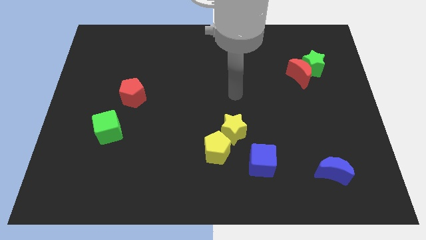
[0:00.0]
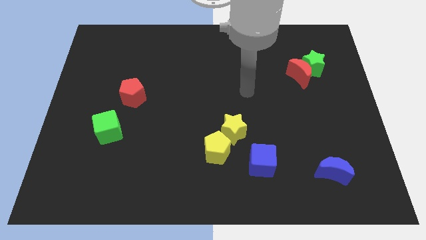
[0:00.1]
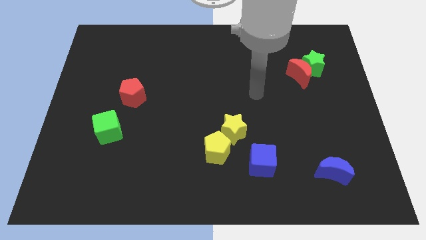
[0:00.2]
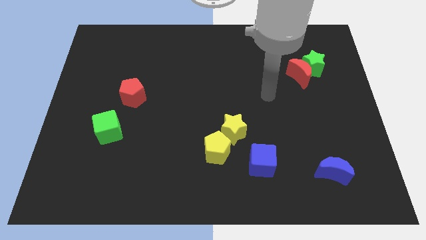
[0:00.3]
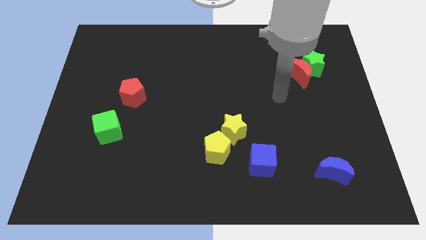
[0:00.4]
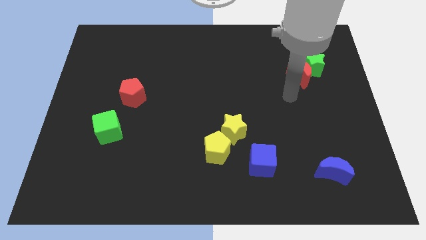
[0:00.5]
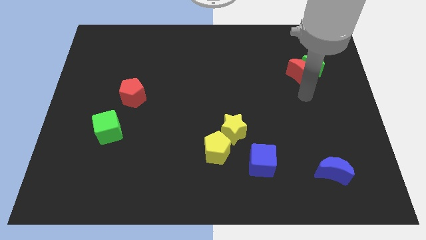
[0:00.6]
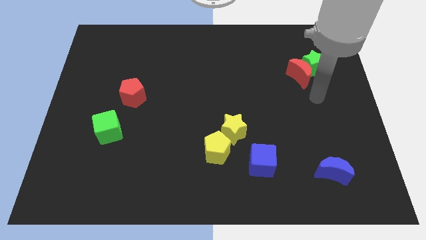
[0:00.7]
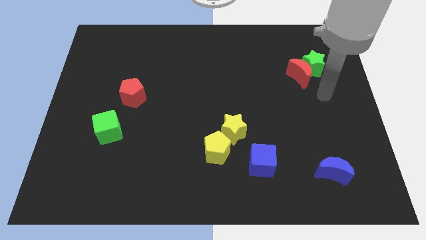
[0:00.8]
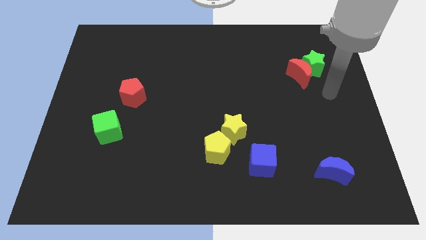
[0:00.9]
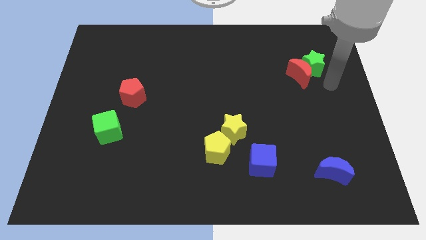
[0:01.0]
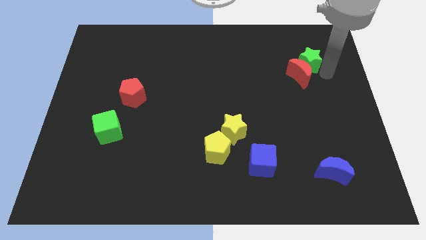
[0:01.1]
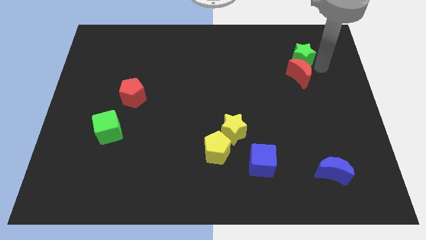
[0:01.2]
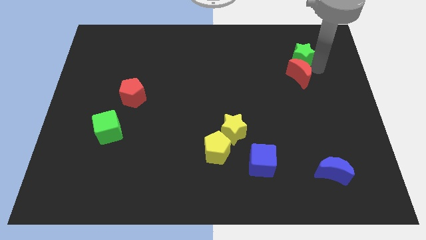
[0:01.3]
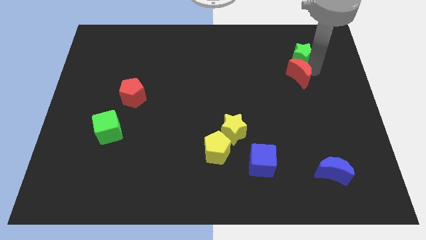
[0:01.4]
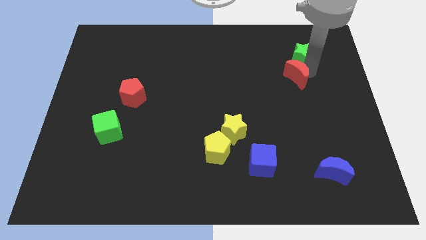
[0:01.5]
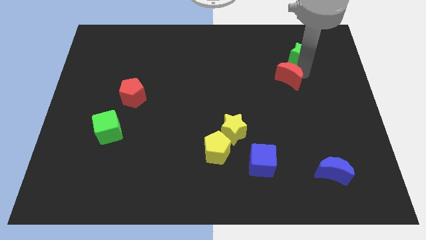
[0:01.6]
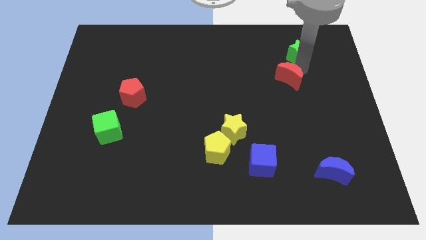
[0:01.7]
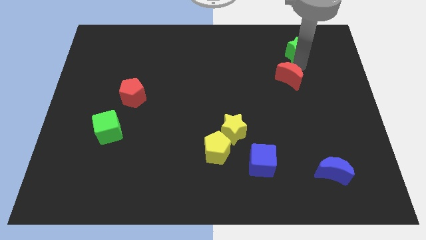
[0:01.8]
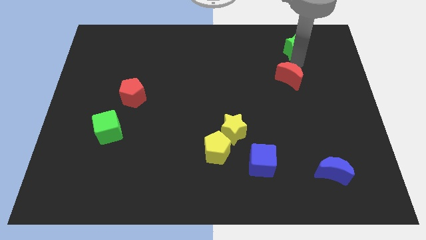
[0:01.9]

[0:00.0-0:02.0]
separate the red moon from the green star

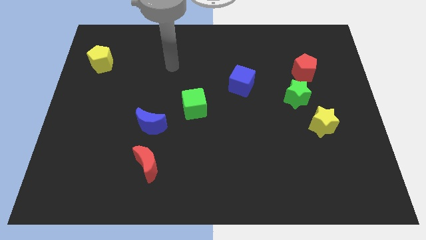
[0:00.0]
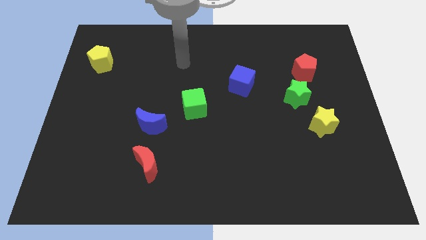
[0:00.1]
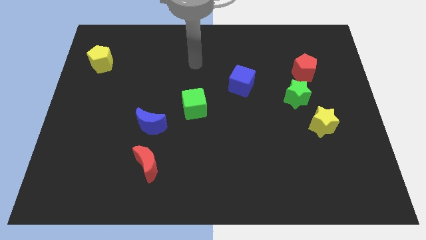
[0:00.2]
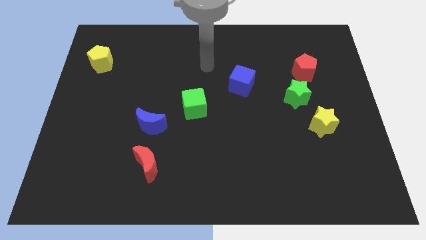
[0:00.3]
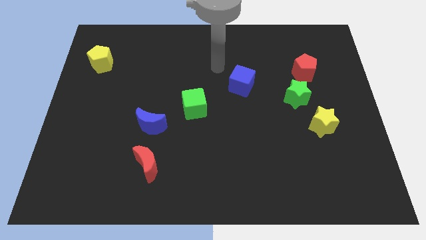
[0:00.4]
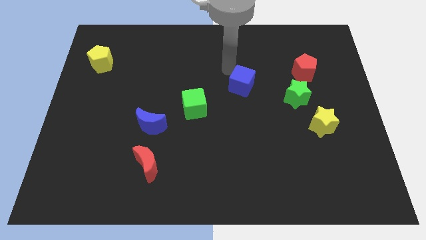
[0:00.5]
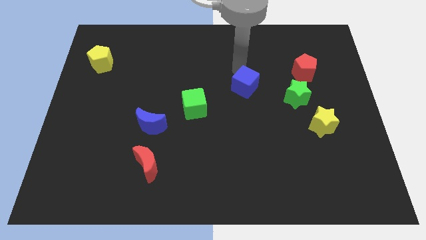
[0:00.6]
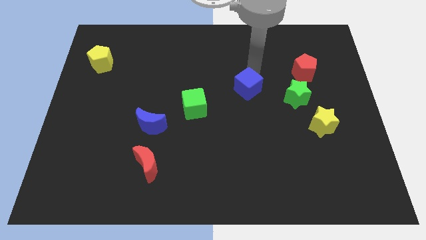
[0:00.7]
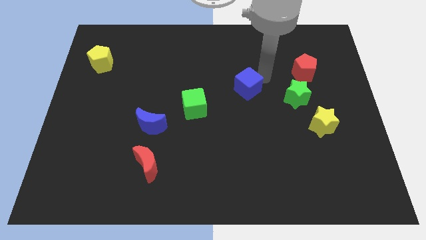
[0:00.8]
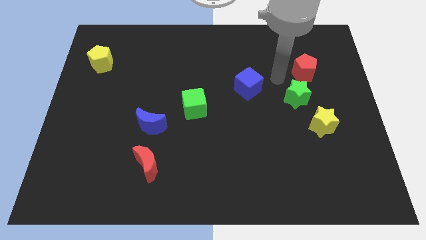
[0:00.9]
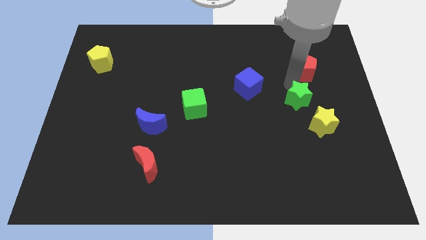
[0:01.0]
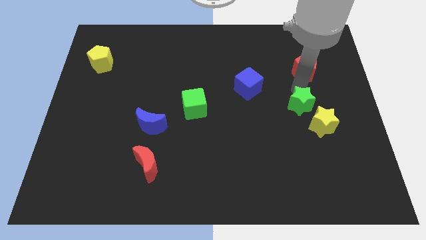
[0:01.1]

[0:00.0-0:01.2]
pull the red pentagon apart from the green star

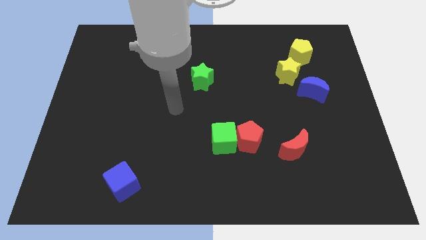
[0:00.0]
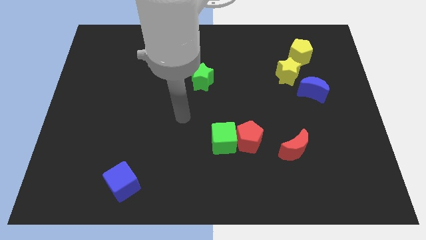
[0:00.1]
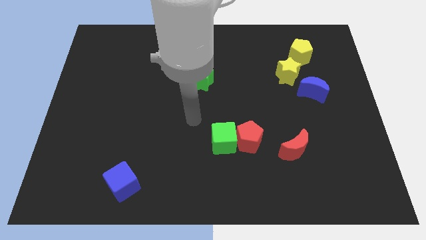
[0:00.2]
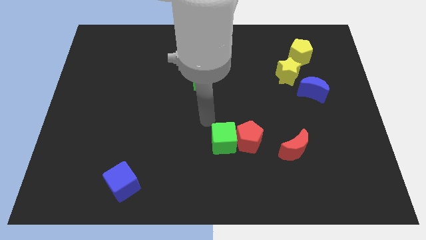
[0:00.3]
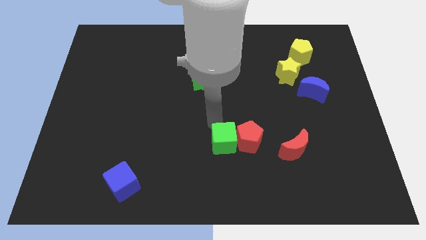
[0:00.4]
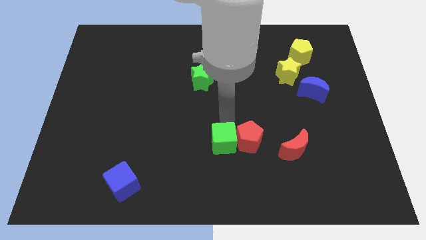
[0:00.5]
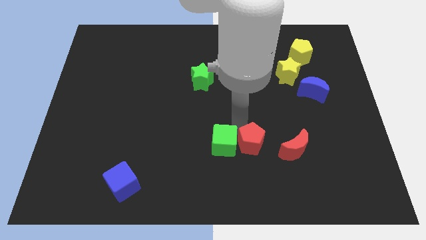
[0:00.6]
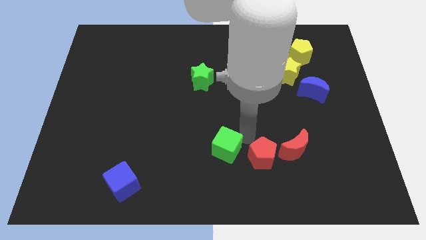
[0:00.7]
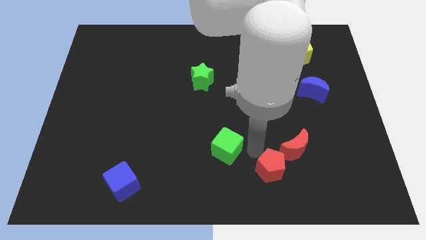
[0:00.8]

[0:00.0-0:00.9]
separate the green cube from the red pentagon

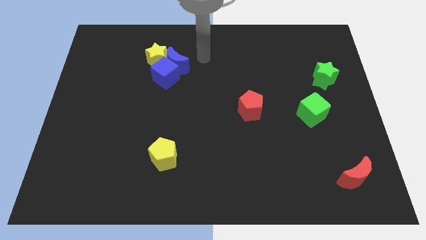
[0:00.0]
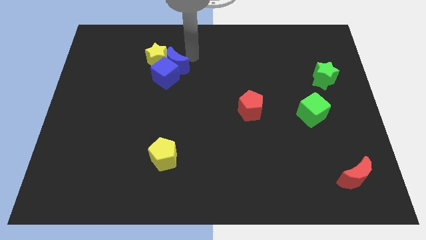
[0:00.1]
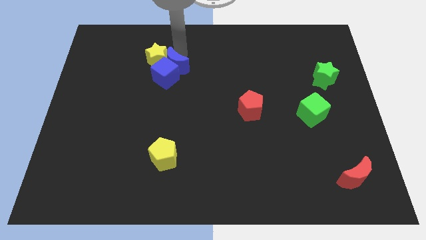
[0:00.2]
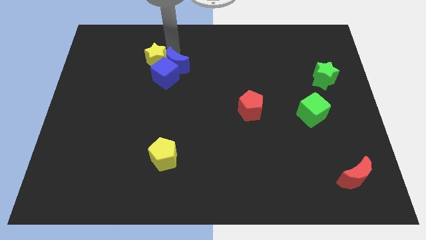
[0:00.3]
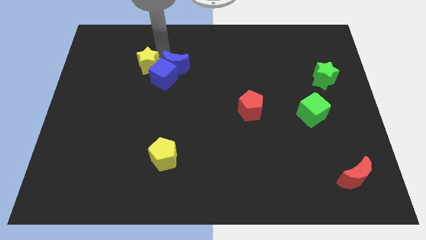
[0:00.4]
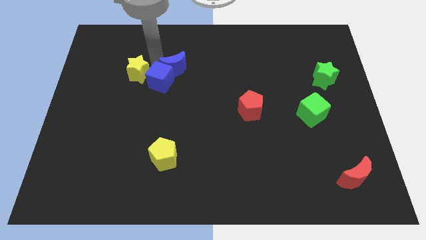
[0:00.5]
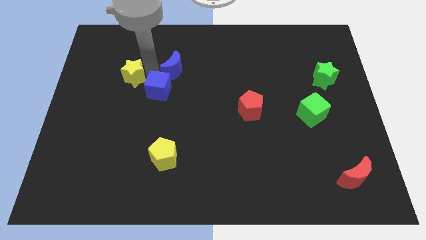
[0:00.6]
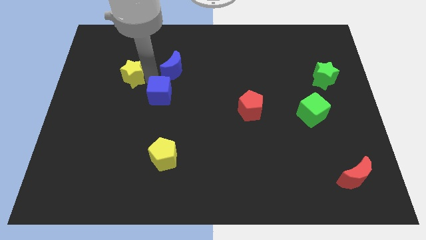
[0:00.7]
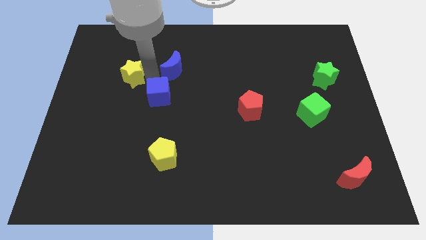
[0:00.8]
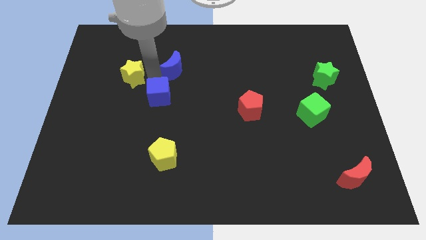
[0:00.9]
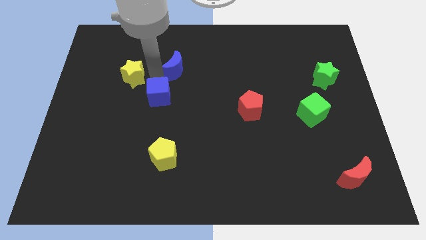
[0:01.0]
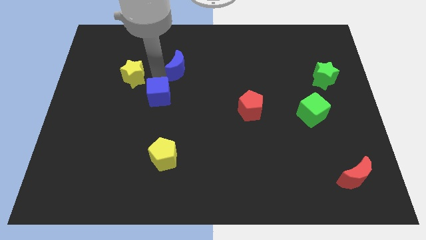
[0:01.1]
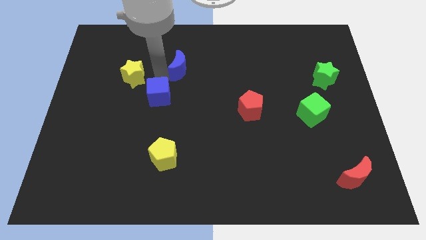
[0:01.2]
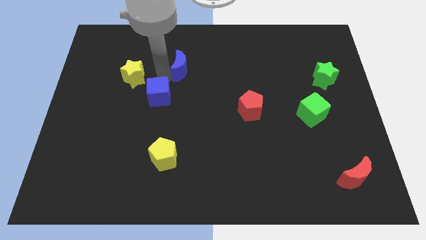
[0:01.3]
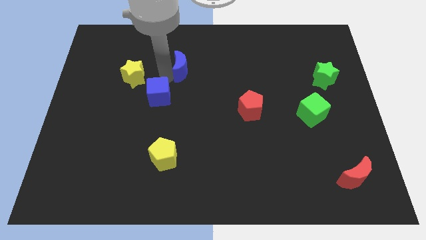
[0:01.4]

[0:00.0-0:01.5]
separate the blue moon from the blue cube and yellow star

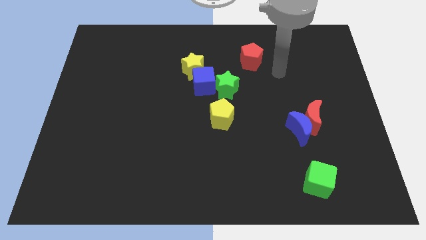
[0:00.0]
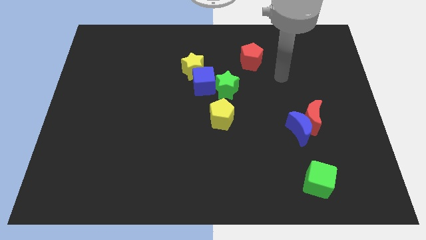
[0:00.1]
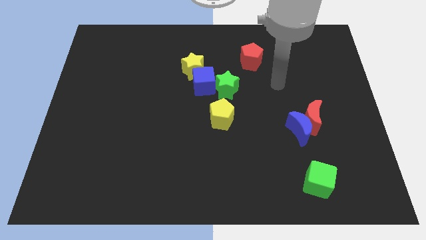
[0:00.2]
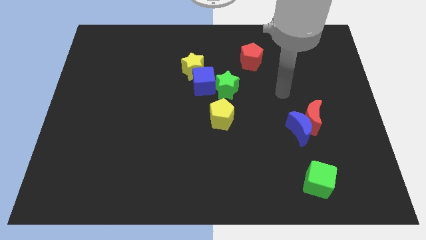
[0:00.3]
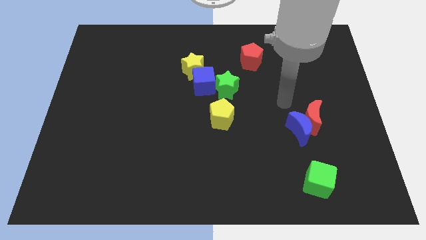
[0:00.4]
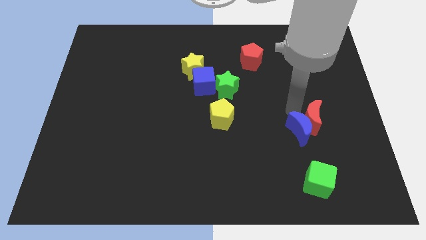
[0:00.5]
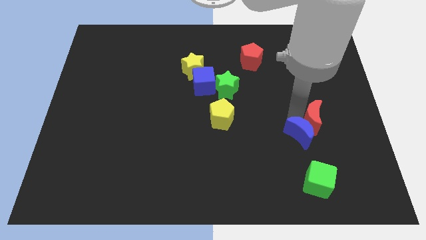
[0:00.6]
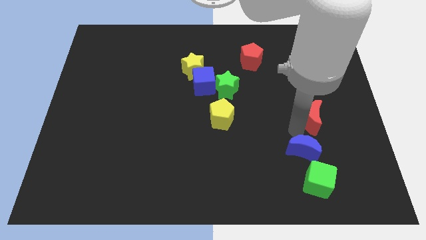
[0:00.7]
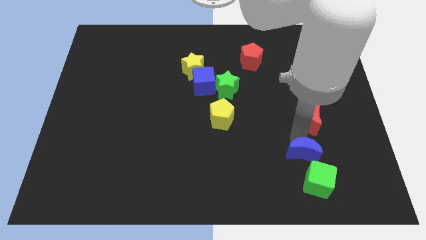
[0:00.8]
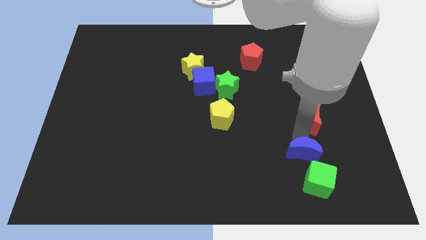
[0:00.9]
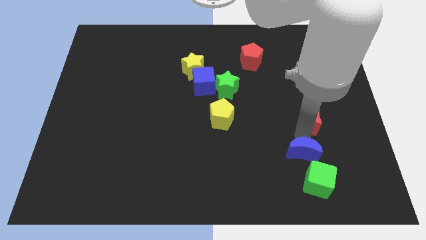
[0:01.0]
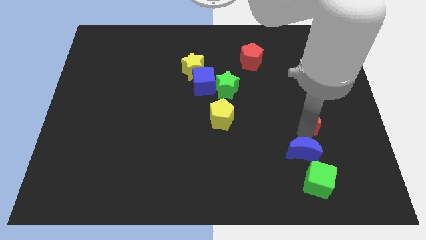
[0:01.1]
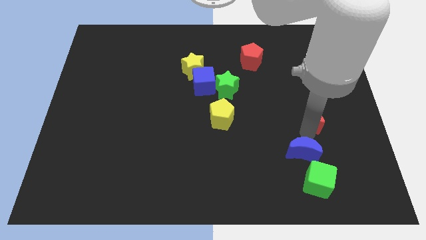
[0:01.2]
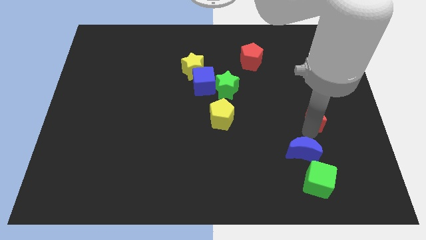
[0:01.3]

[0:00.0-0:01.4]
separate the red moon from the blue moon

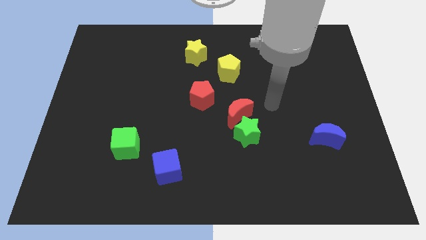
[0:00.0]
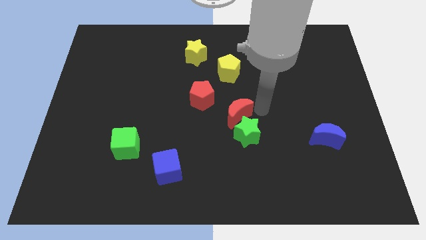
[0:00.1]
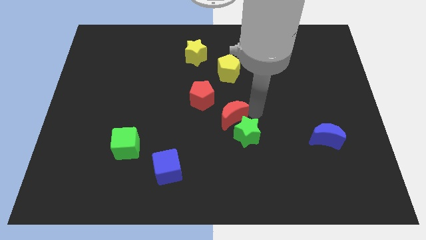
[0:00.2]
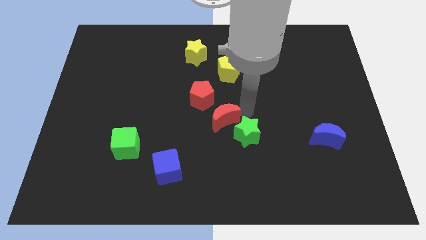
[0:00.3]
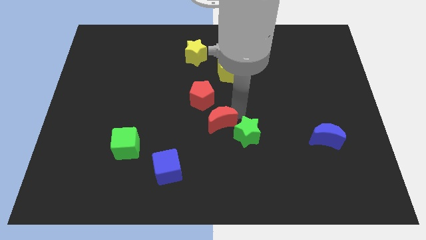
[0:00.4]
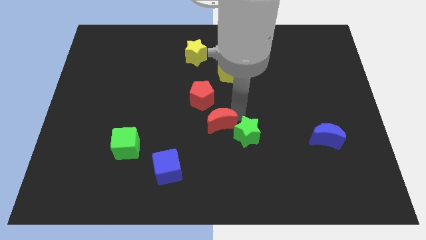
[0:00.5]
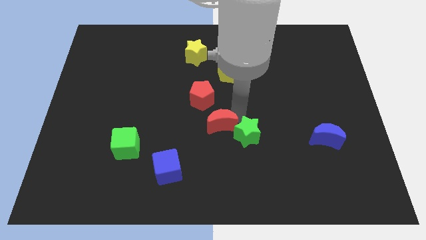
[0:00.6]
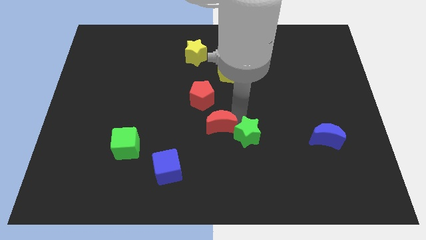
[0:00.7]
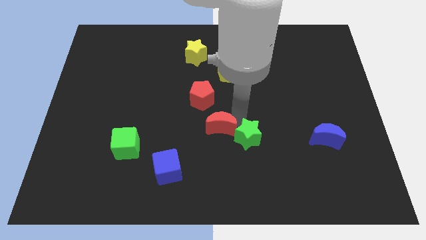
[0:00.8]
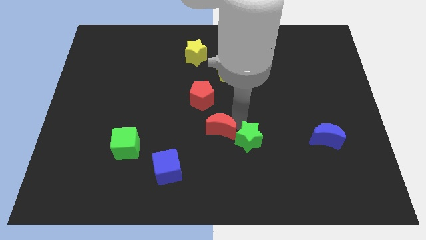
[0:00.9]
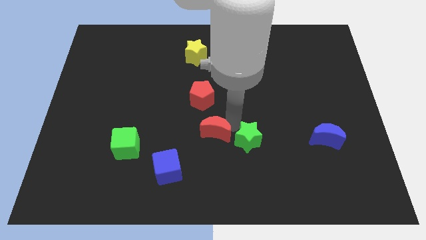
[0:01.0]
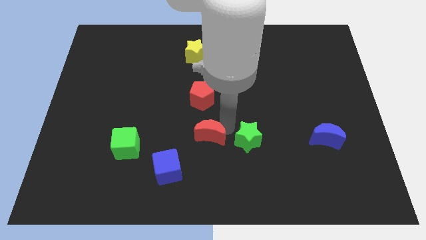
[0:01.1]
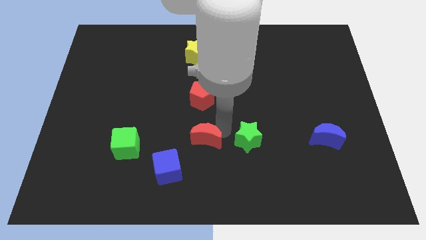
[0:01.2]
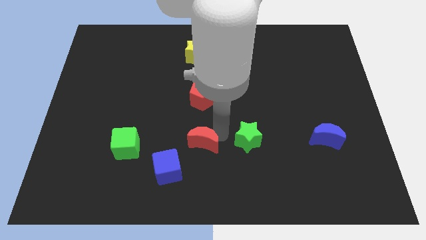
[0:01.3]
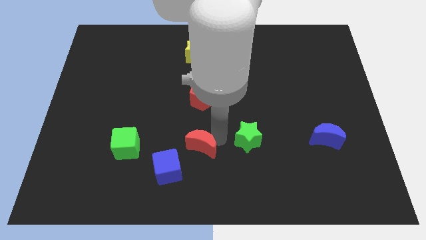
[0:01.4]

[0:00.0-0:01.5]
separate the green star from the red moon

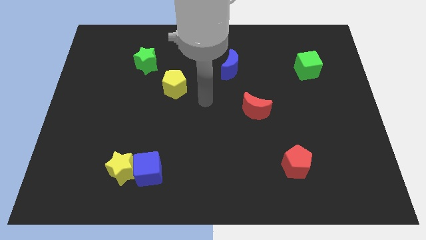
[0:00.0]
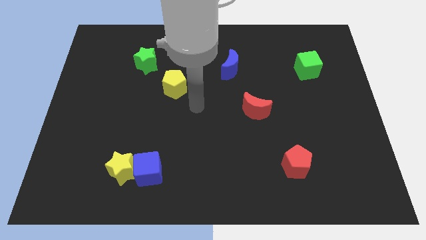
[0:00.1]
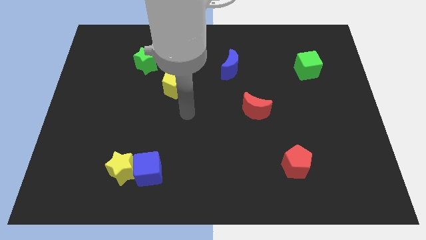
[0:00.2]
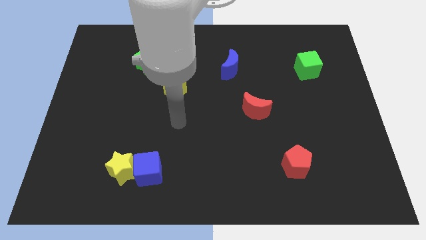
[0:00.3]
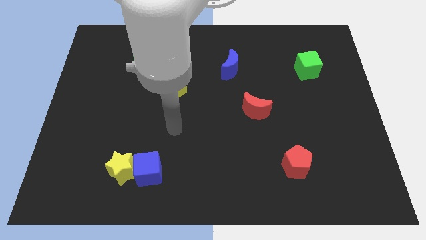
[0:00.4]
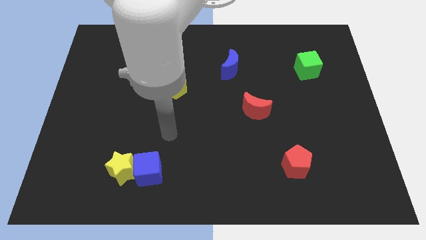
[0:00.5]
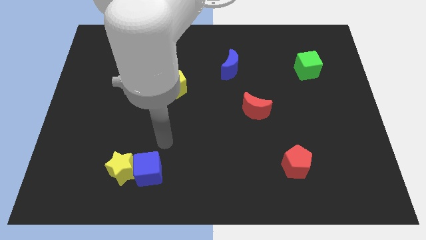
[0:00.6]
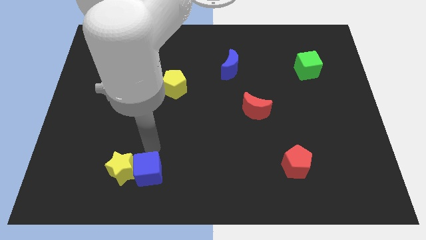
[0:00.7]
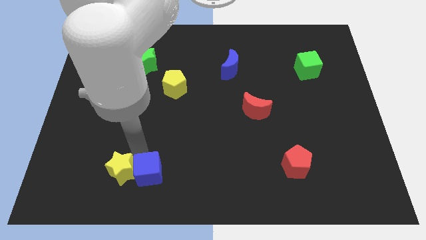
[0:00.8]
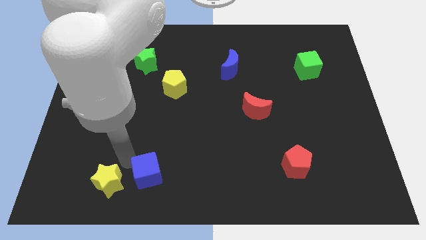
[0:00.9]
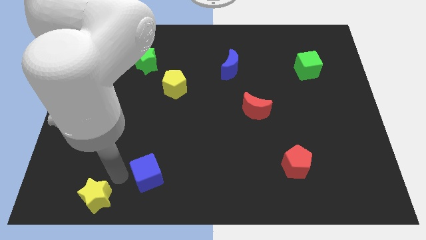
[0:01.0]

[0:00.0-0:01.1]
pull the blue cube apart from the yellow star
